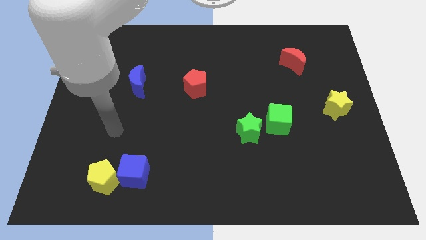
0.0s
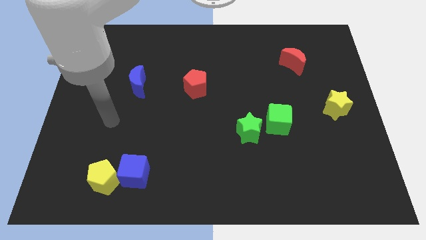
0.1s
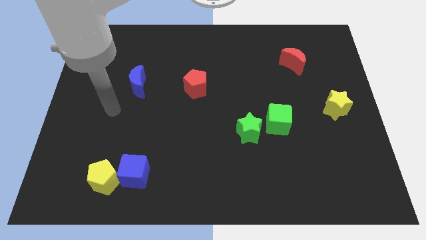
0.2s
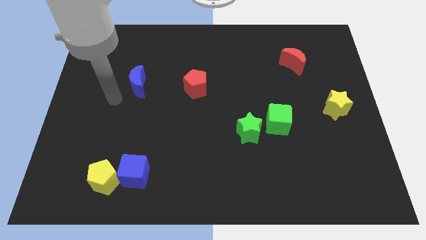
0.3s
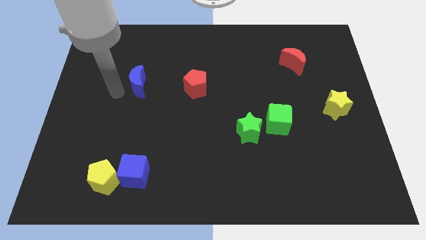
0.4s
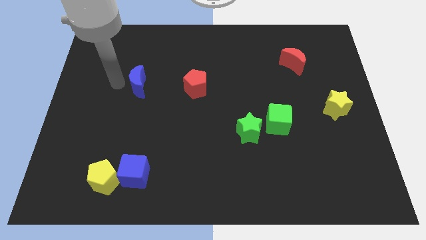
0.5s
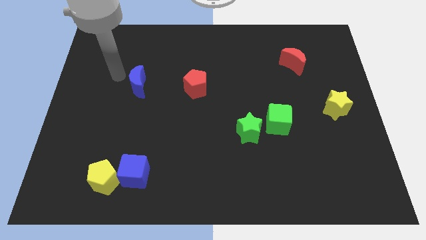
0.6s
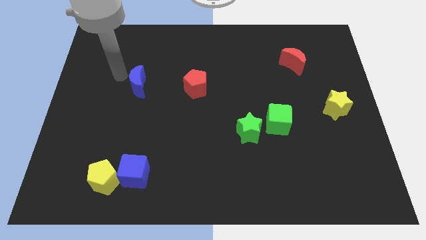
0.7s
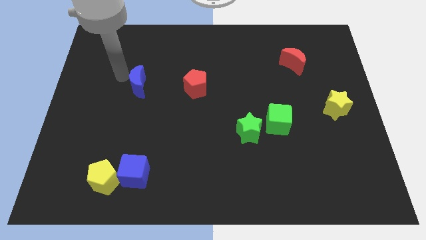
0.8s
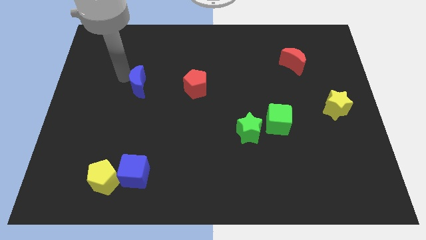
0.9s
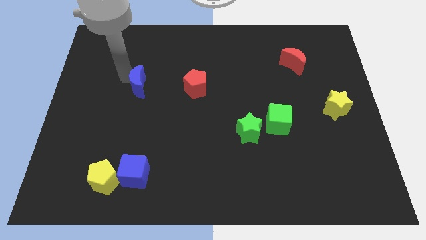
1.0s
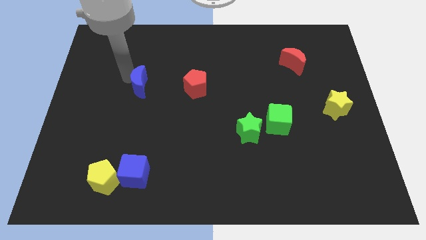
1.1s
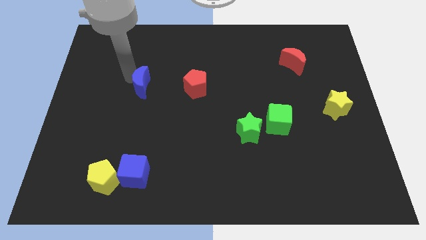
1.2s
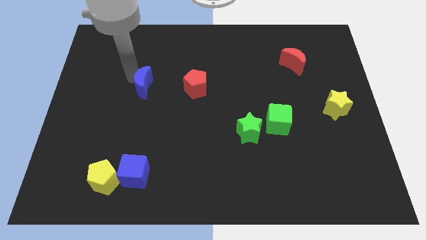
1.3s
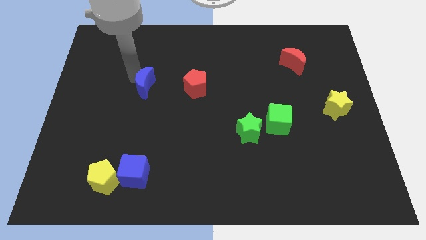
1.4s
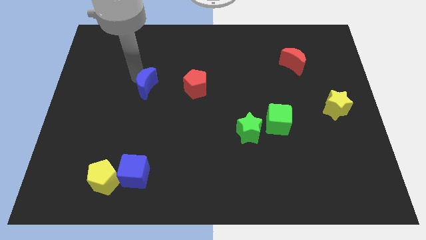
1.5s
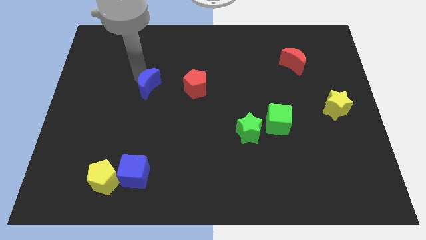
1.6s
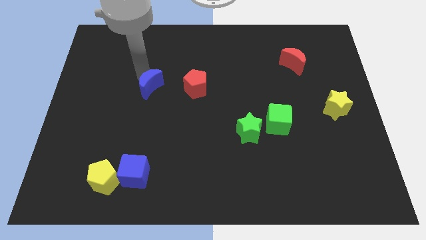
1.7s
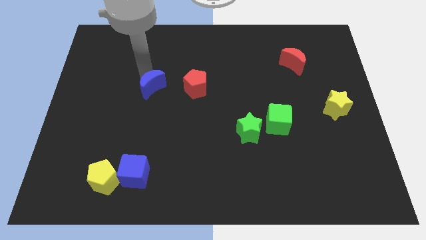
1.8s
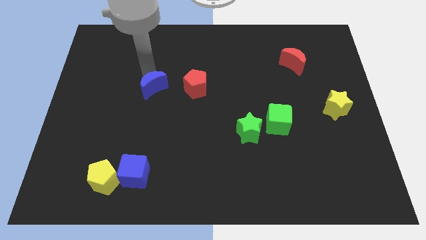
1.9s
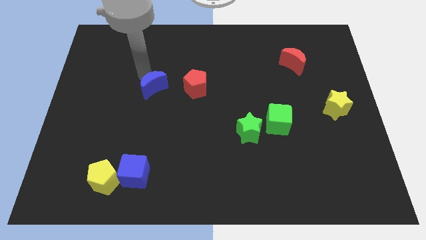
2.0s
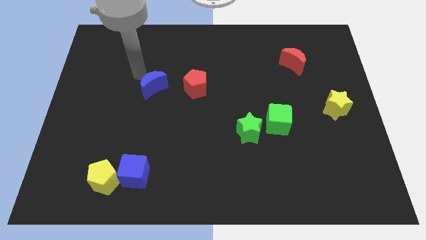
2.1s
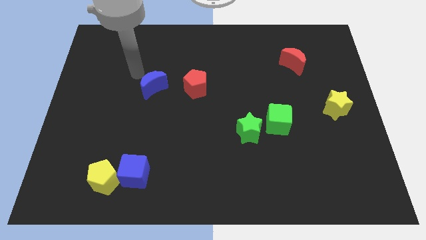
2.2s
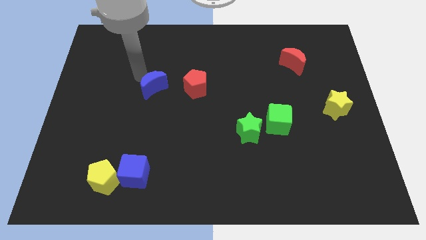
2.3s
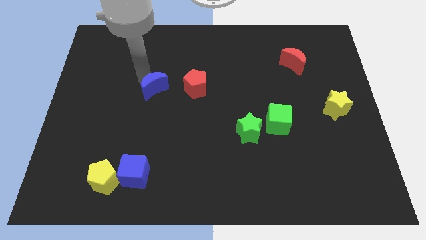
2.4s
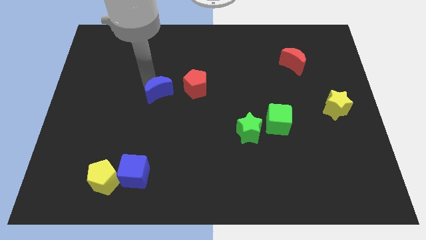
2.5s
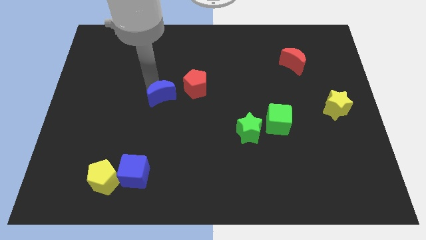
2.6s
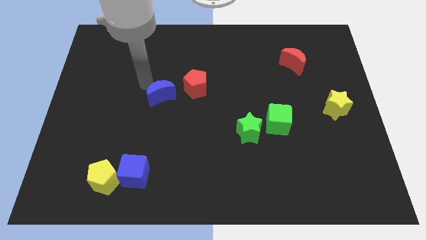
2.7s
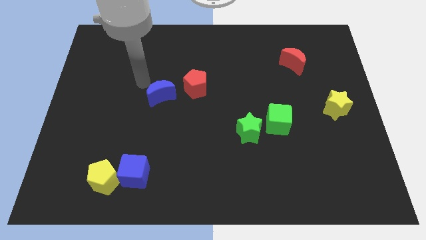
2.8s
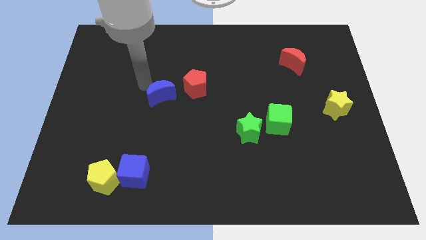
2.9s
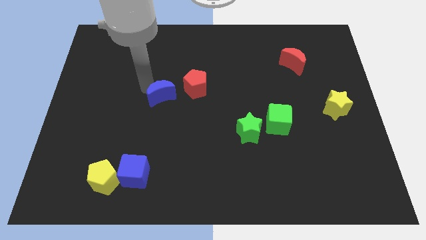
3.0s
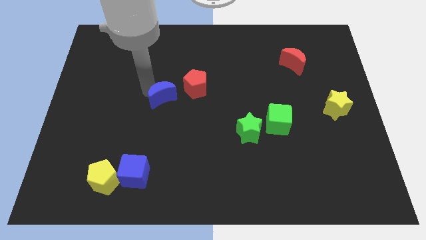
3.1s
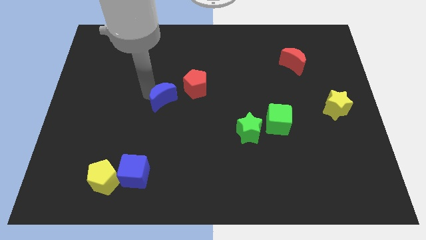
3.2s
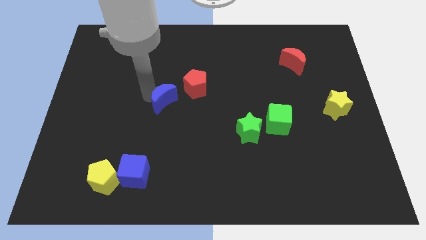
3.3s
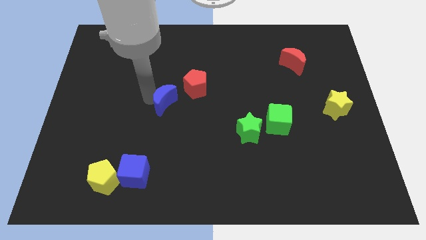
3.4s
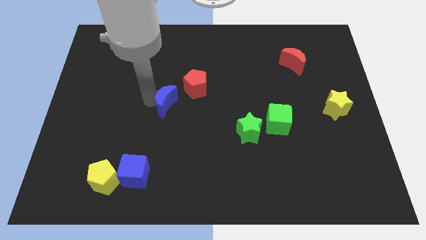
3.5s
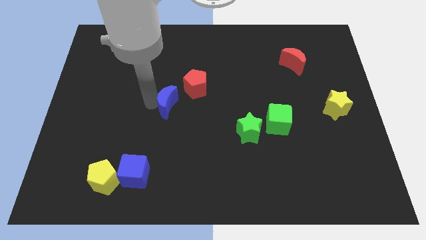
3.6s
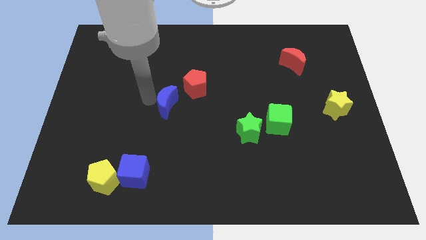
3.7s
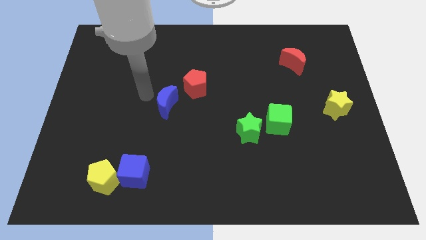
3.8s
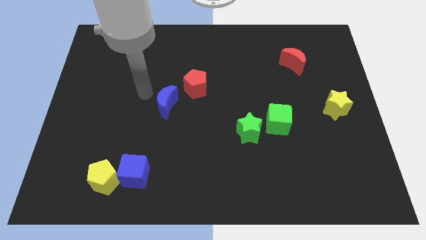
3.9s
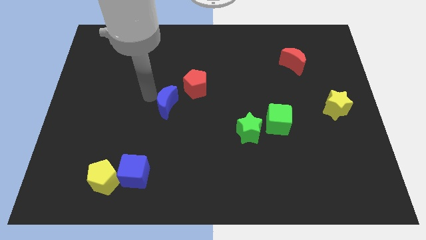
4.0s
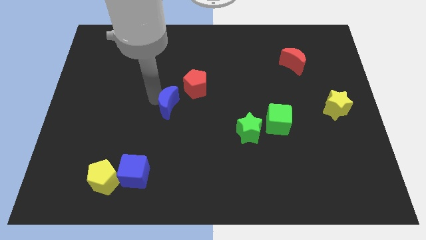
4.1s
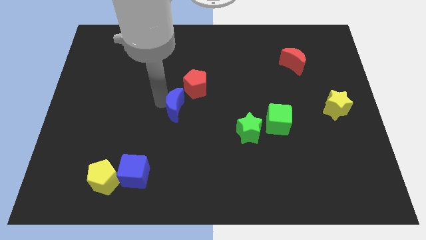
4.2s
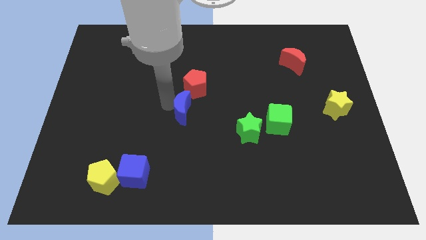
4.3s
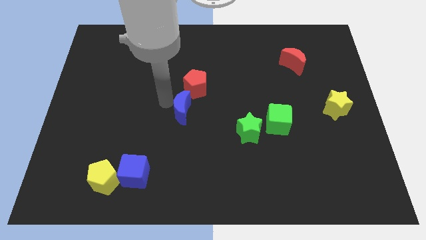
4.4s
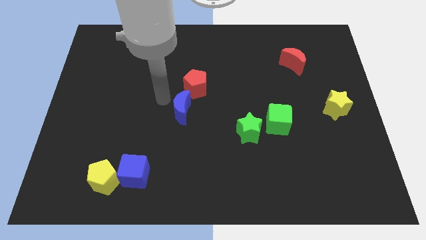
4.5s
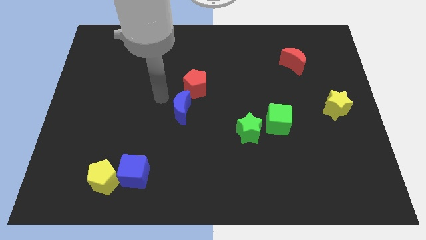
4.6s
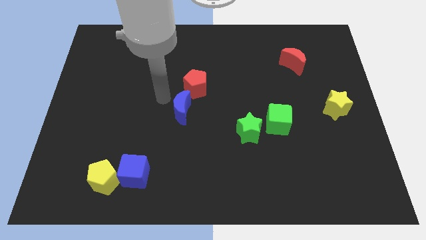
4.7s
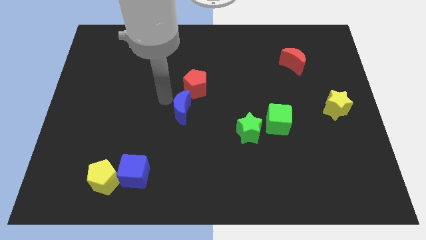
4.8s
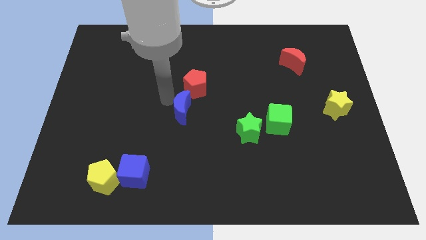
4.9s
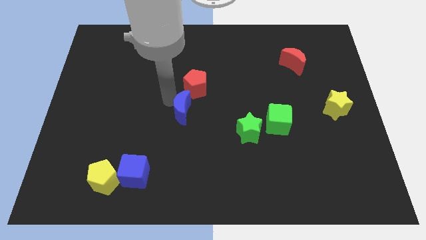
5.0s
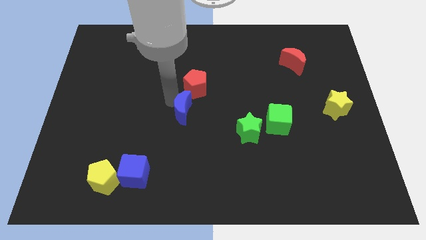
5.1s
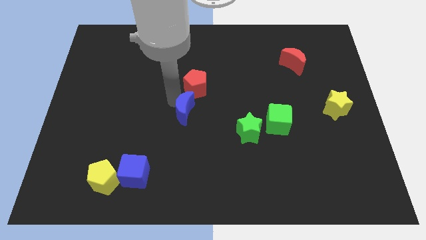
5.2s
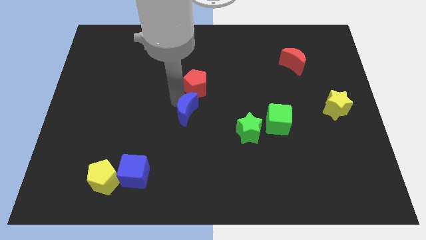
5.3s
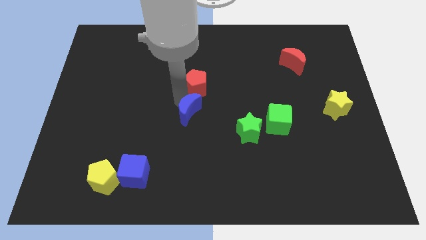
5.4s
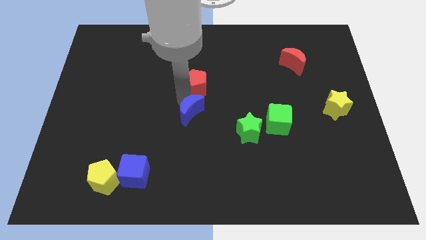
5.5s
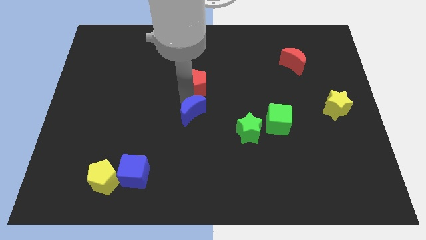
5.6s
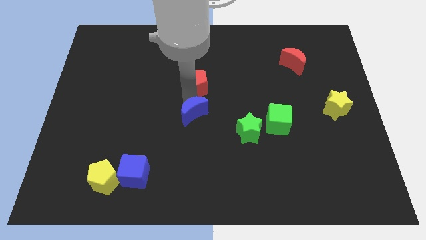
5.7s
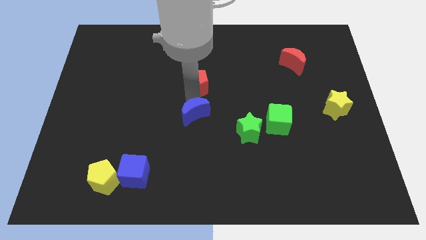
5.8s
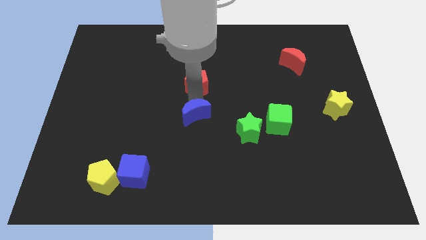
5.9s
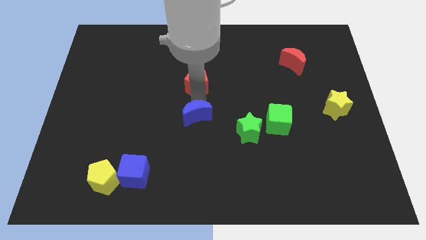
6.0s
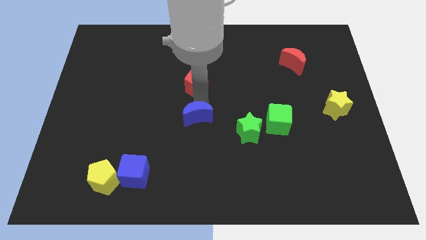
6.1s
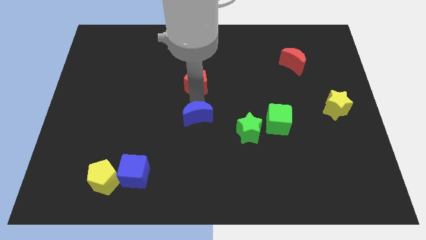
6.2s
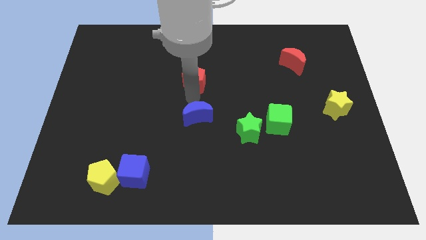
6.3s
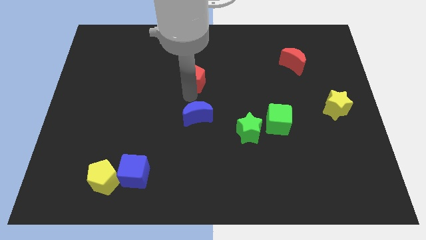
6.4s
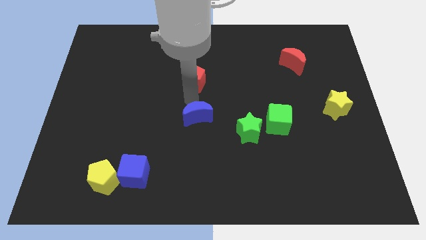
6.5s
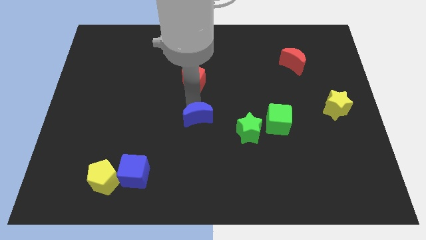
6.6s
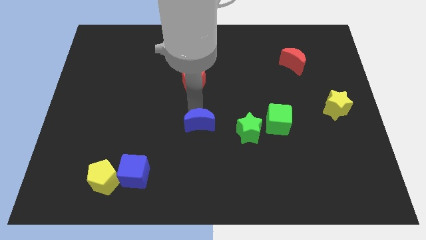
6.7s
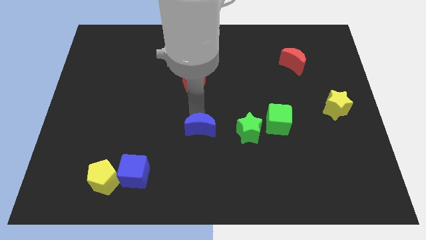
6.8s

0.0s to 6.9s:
push the blue moon downwards and then to the right

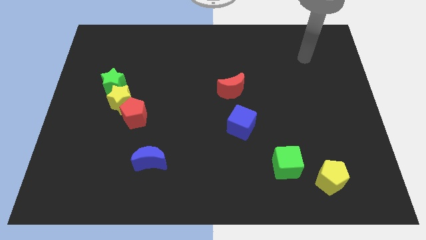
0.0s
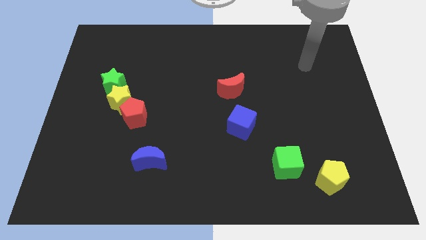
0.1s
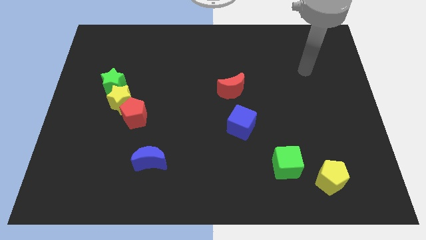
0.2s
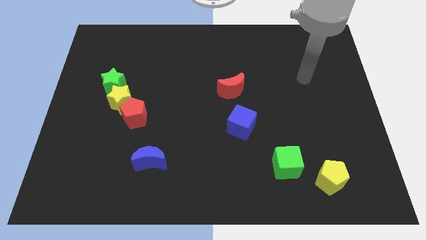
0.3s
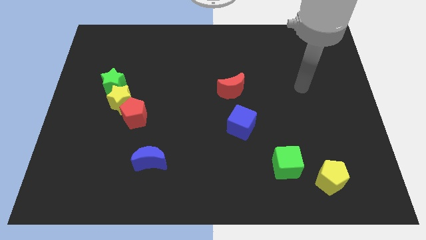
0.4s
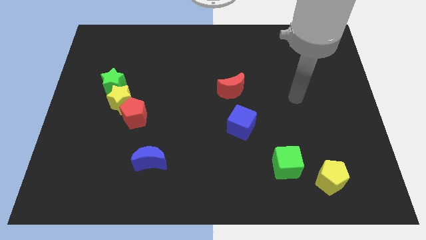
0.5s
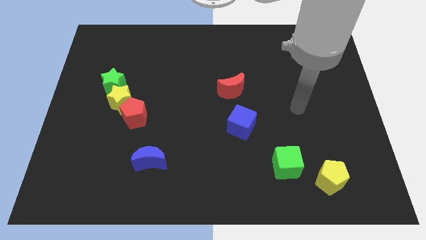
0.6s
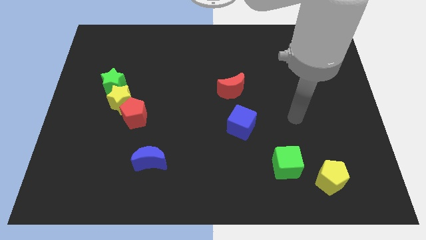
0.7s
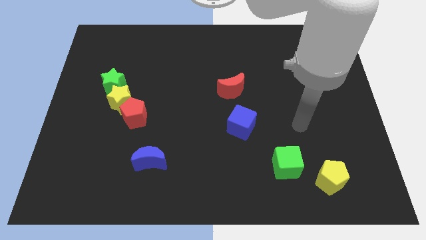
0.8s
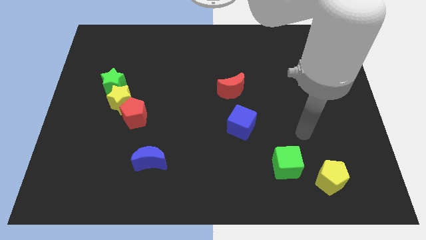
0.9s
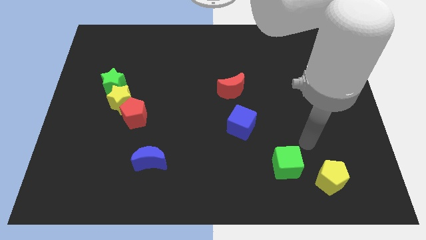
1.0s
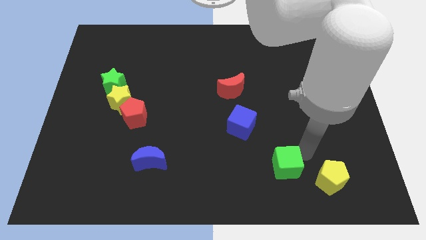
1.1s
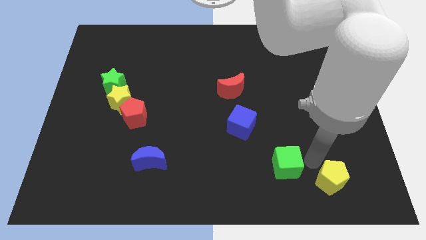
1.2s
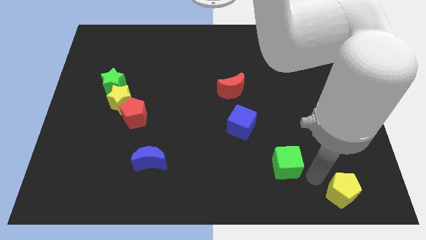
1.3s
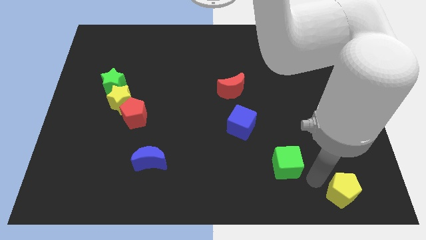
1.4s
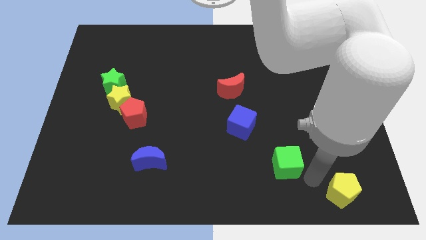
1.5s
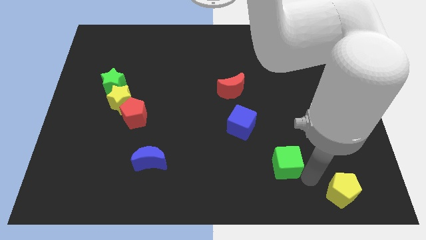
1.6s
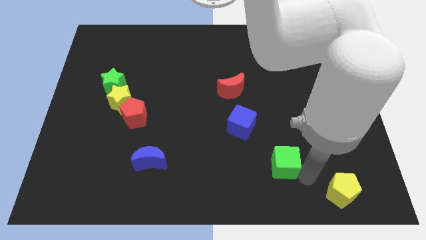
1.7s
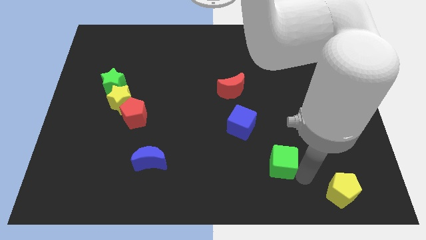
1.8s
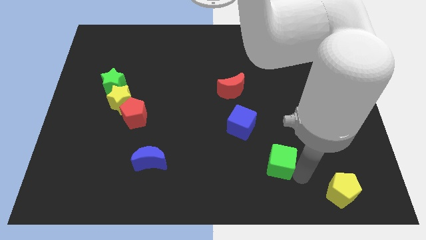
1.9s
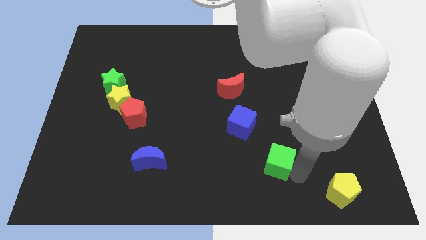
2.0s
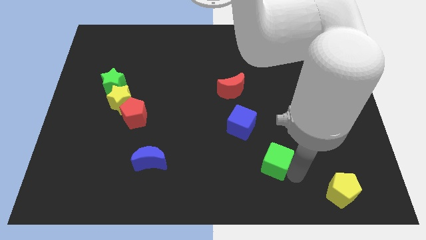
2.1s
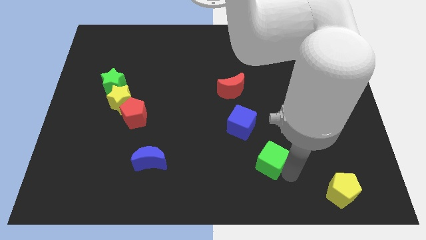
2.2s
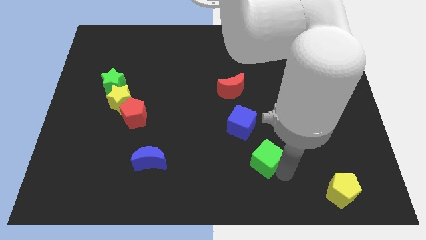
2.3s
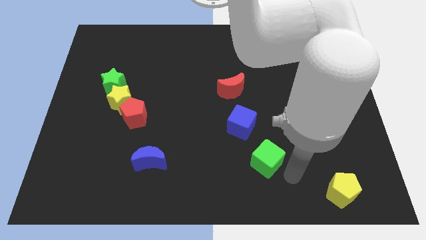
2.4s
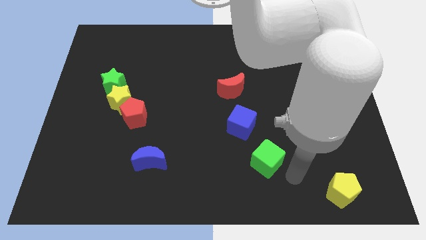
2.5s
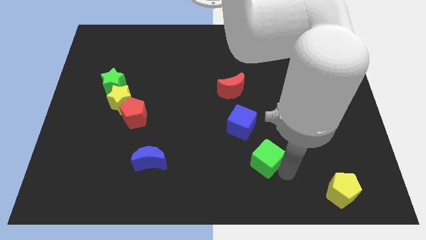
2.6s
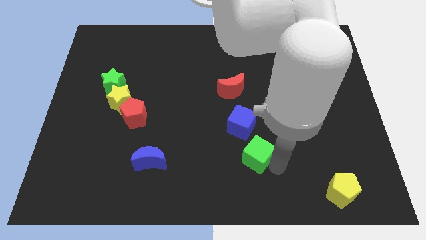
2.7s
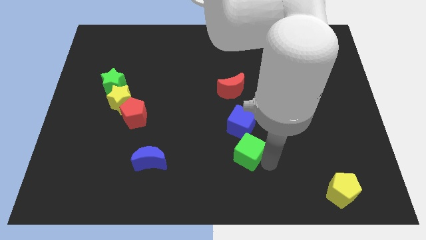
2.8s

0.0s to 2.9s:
push the green cube a little bit diagonally up and to the left
